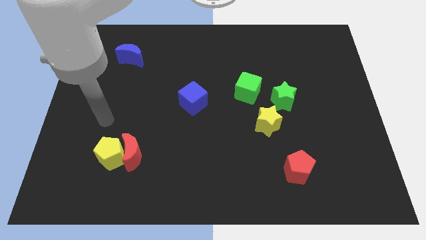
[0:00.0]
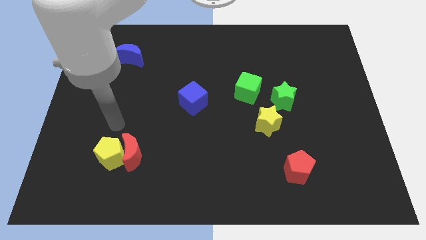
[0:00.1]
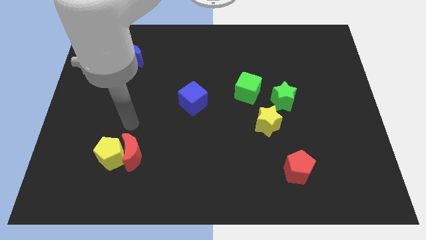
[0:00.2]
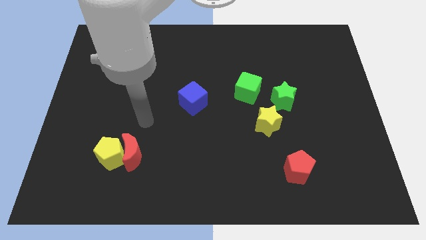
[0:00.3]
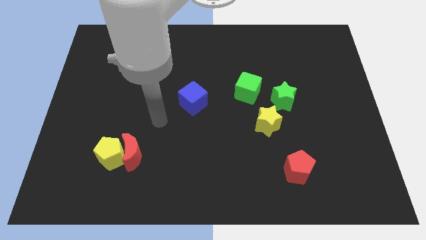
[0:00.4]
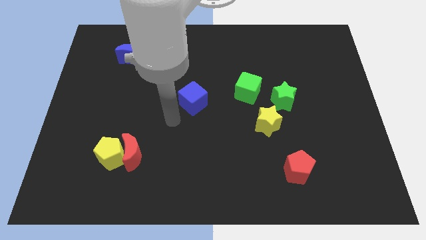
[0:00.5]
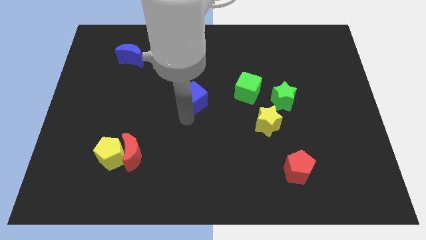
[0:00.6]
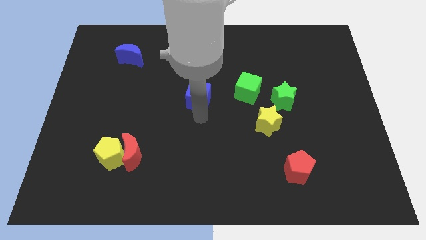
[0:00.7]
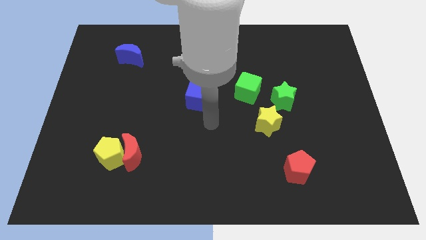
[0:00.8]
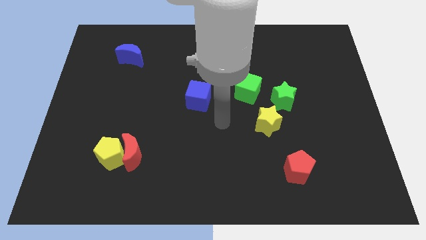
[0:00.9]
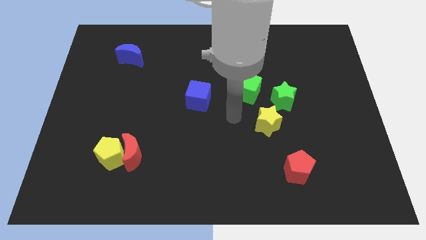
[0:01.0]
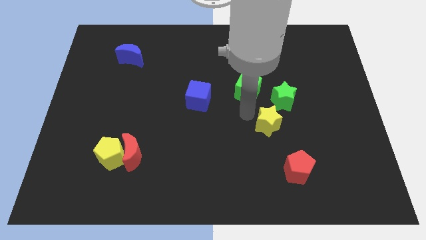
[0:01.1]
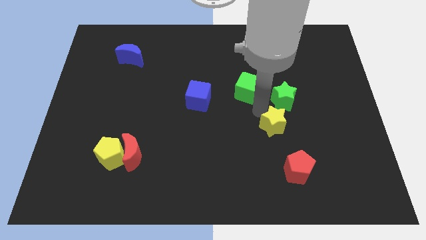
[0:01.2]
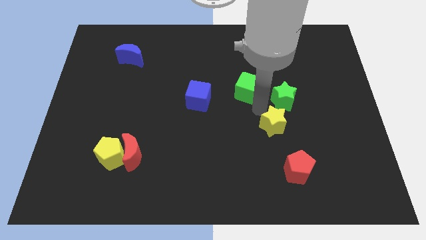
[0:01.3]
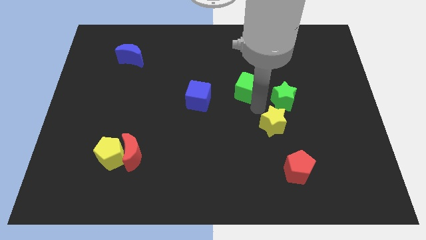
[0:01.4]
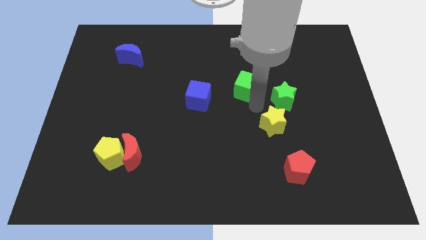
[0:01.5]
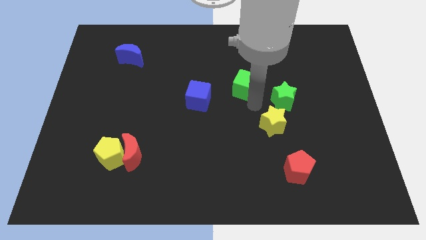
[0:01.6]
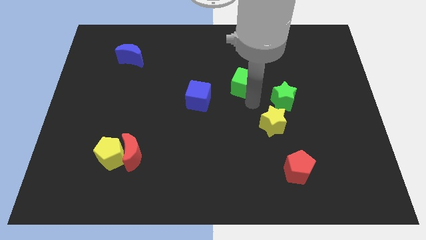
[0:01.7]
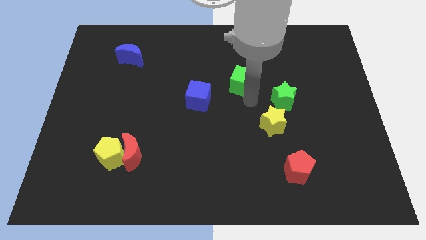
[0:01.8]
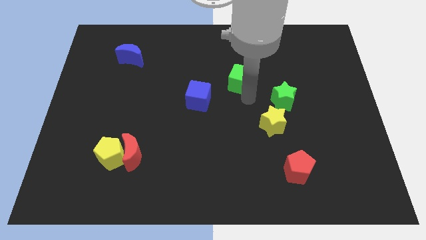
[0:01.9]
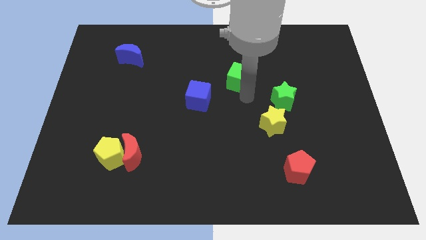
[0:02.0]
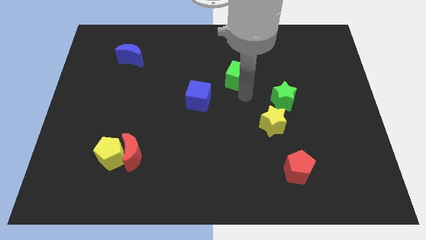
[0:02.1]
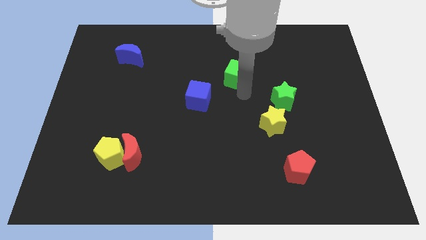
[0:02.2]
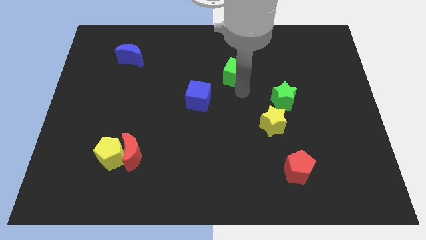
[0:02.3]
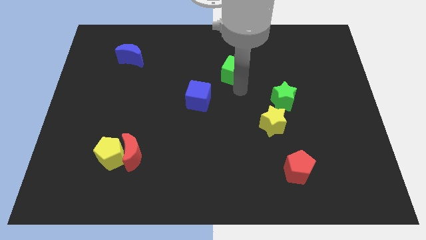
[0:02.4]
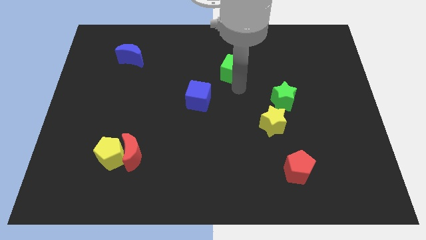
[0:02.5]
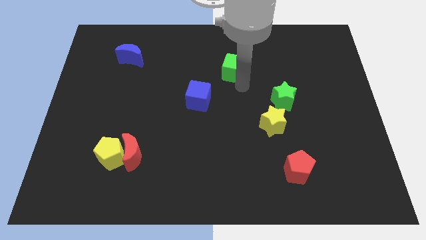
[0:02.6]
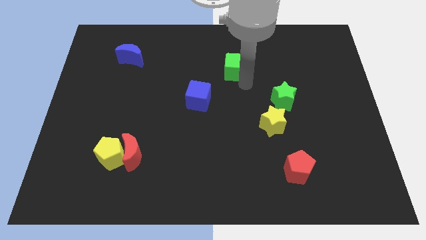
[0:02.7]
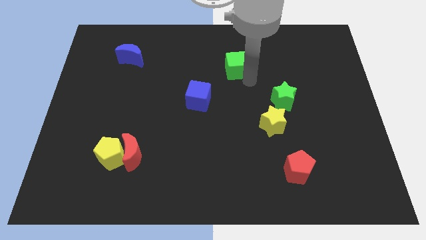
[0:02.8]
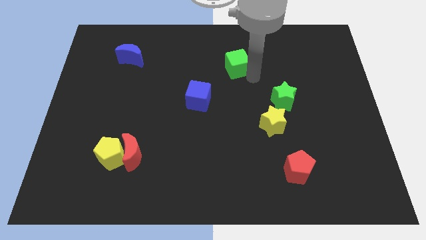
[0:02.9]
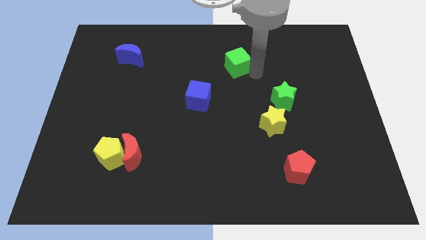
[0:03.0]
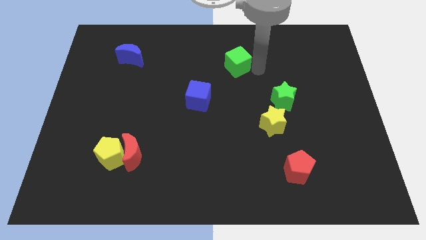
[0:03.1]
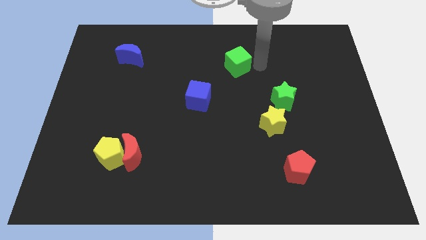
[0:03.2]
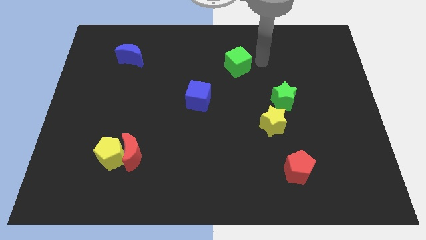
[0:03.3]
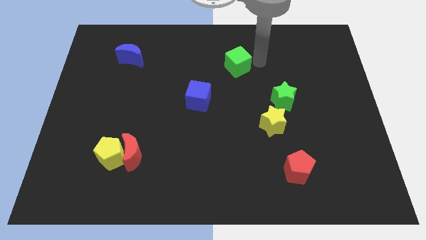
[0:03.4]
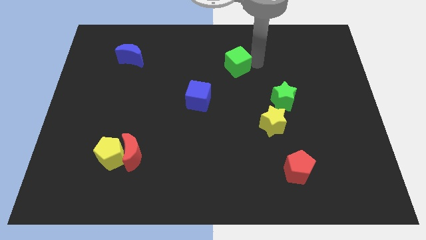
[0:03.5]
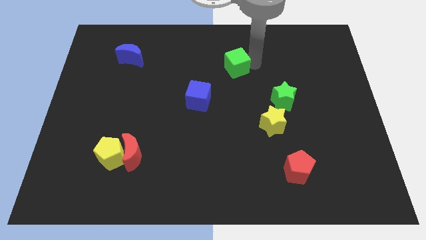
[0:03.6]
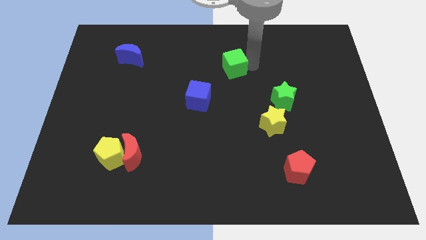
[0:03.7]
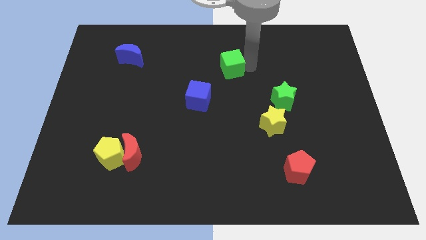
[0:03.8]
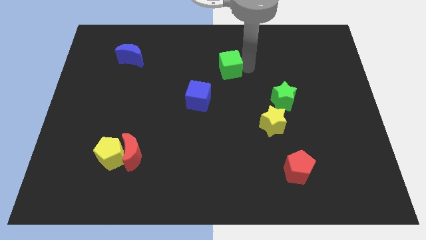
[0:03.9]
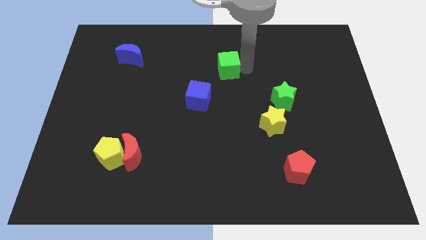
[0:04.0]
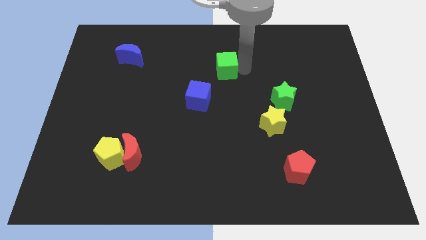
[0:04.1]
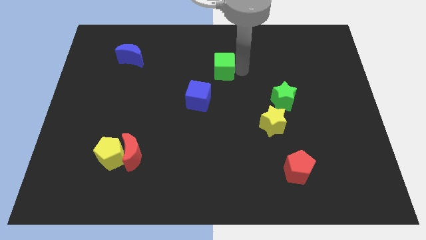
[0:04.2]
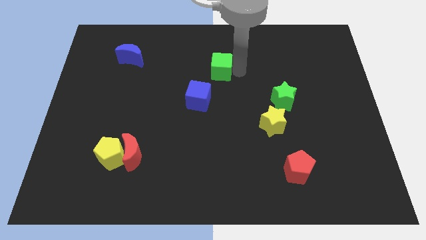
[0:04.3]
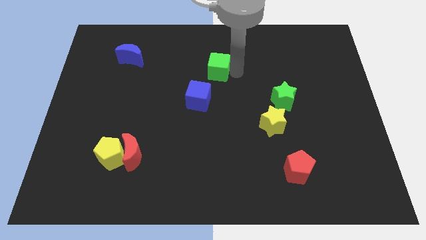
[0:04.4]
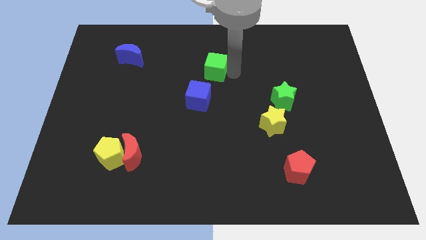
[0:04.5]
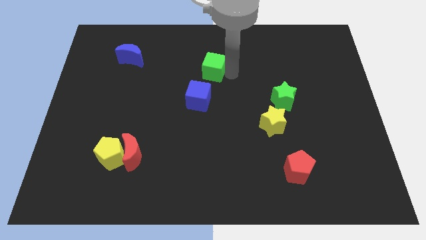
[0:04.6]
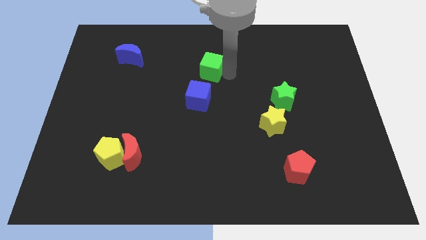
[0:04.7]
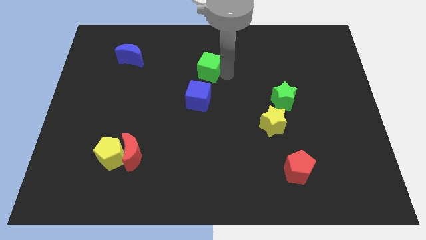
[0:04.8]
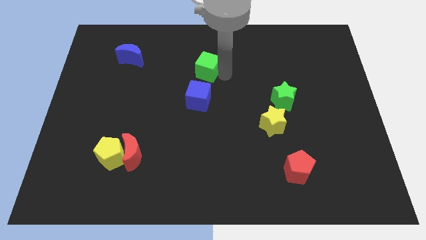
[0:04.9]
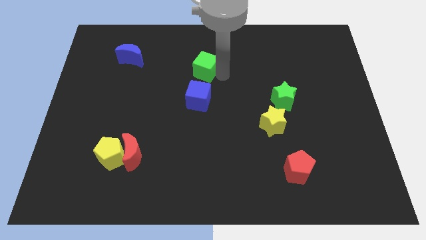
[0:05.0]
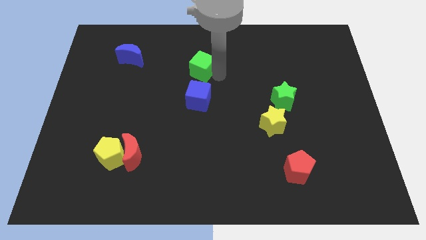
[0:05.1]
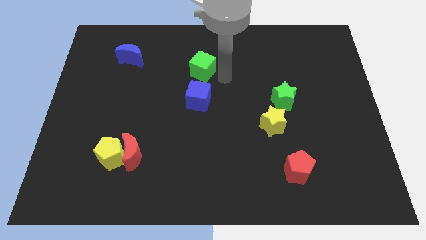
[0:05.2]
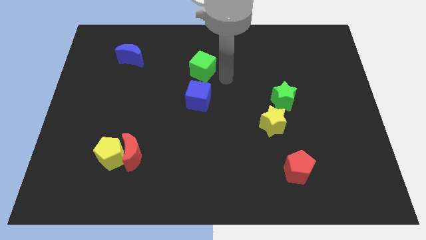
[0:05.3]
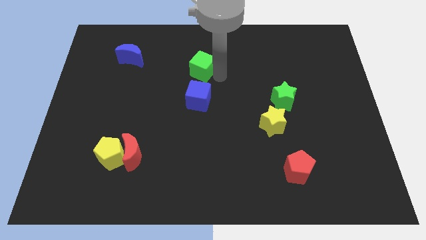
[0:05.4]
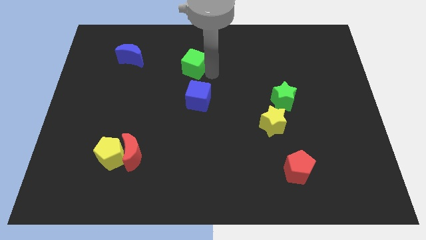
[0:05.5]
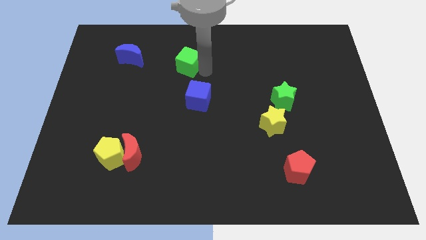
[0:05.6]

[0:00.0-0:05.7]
slide the green cube to the right of the blue moon

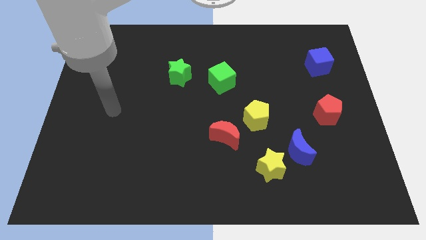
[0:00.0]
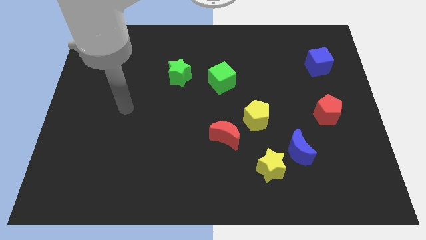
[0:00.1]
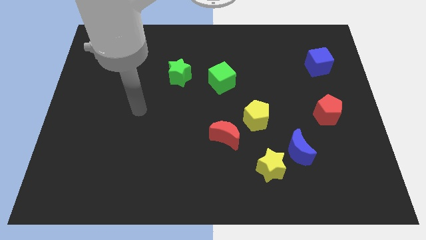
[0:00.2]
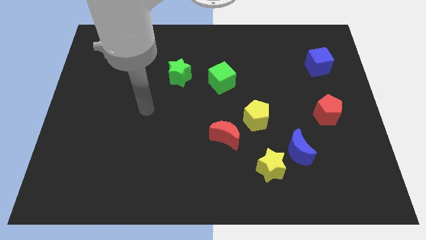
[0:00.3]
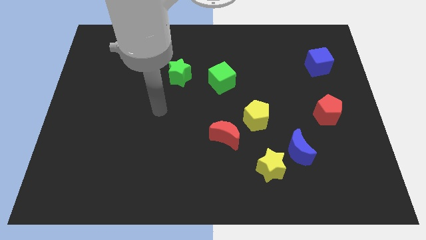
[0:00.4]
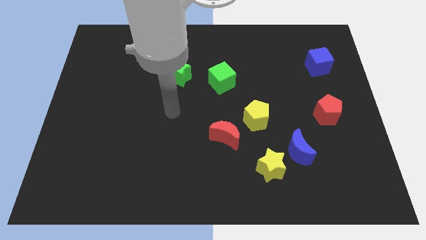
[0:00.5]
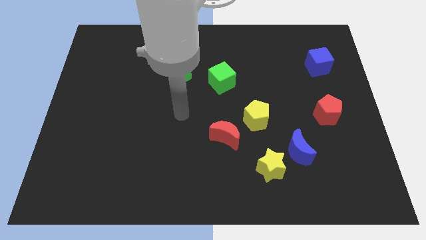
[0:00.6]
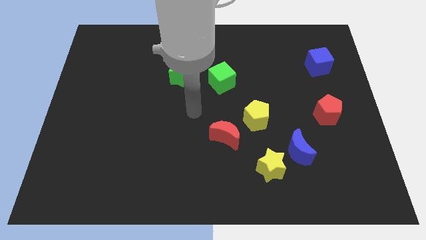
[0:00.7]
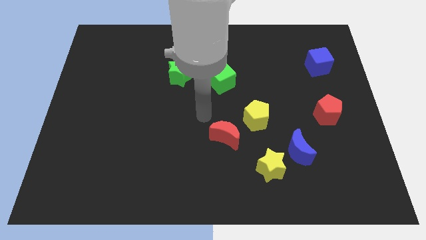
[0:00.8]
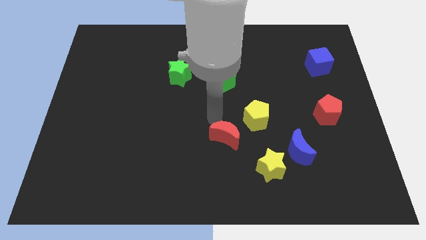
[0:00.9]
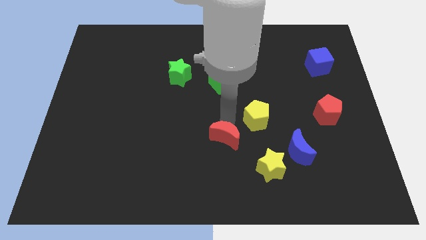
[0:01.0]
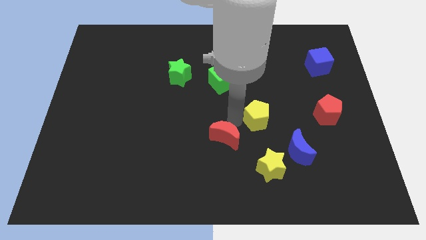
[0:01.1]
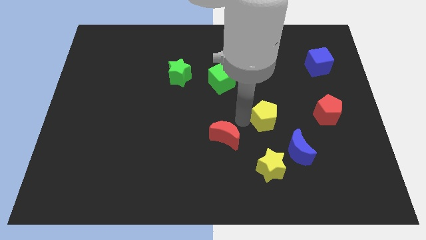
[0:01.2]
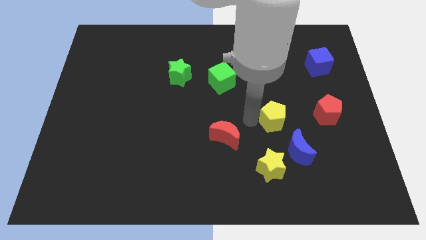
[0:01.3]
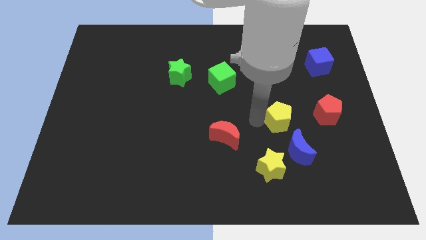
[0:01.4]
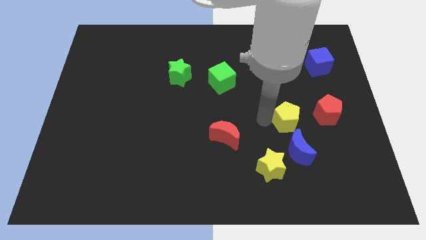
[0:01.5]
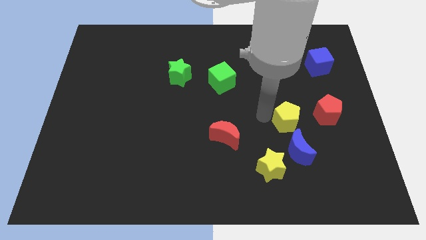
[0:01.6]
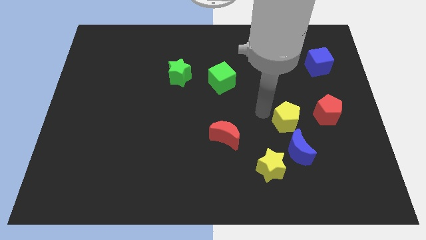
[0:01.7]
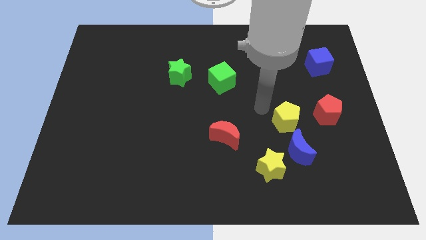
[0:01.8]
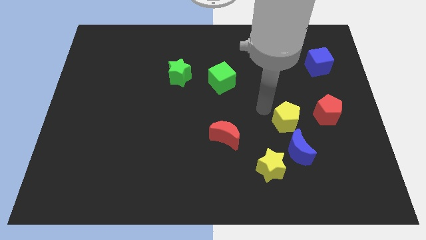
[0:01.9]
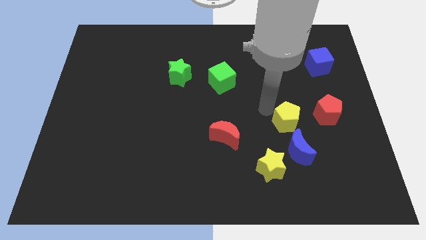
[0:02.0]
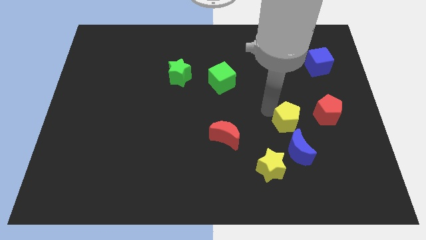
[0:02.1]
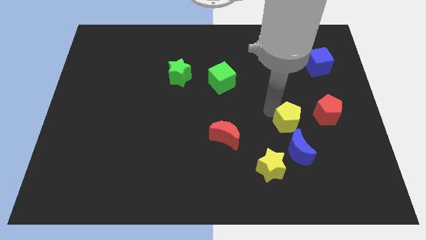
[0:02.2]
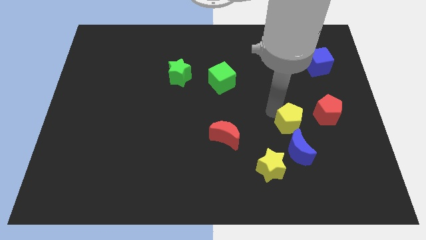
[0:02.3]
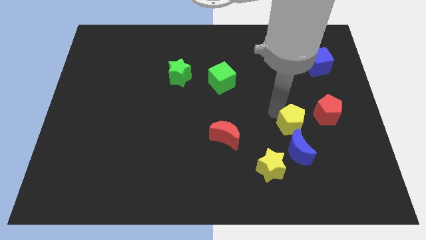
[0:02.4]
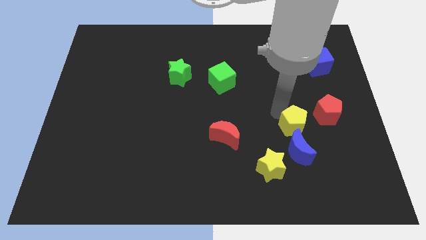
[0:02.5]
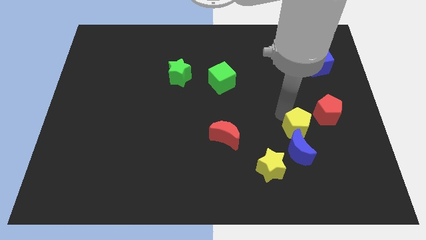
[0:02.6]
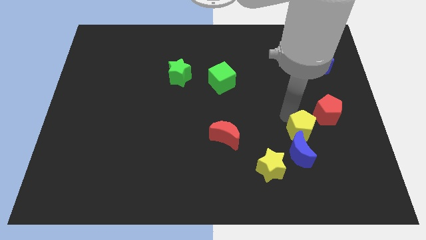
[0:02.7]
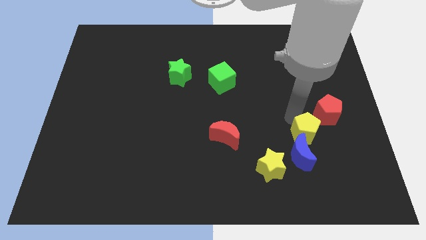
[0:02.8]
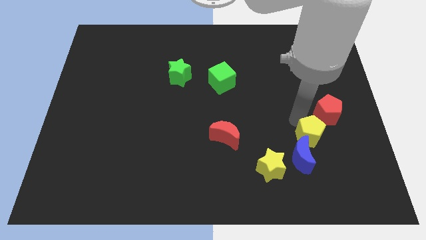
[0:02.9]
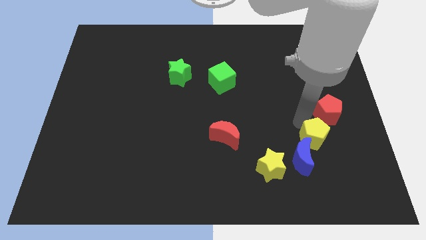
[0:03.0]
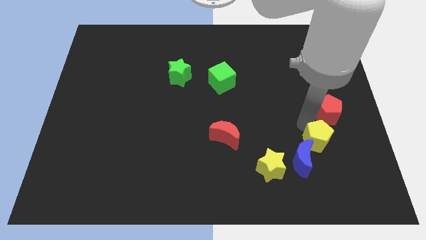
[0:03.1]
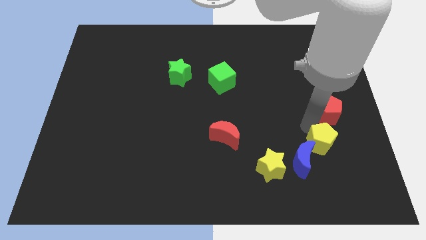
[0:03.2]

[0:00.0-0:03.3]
put the yellow pentagon right of the blue moon
